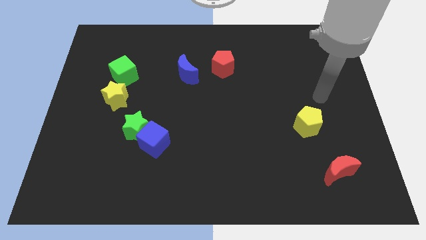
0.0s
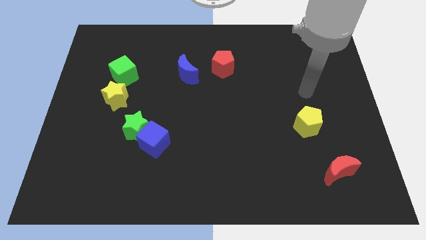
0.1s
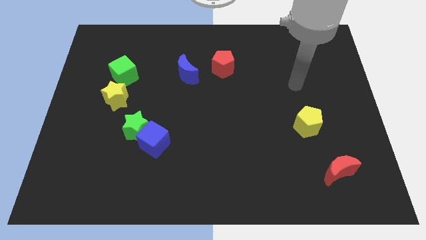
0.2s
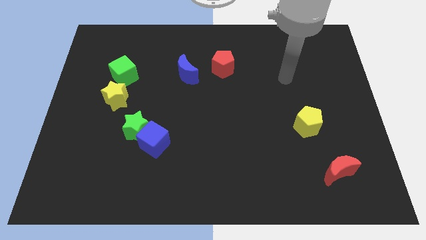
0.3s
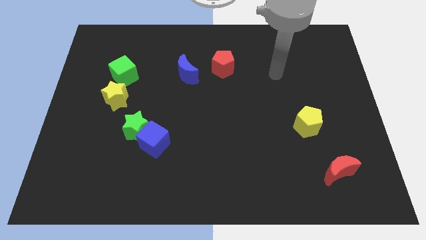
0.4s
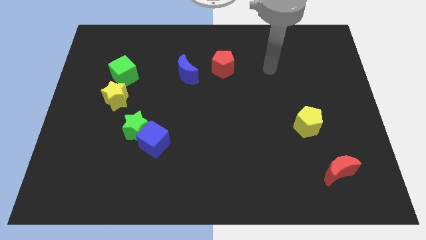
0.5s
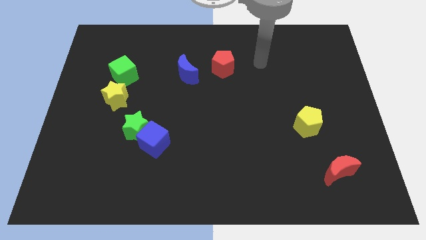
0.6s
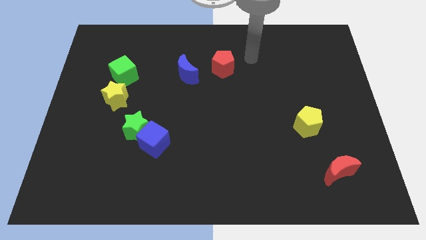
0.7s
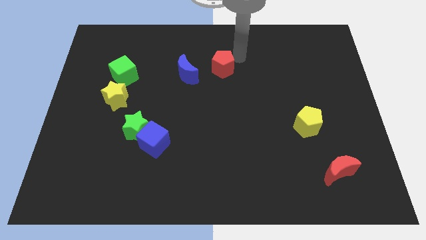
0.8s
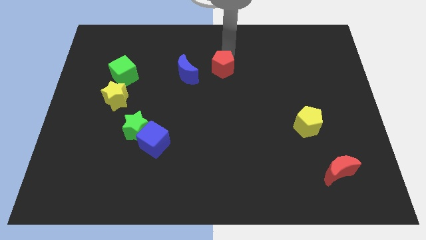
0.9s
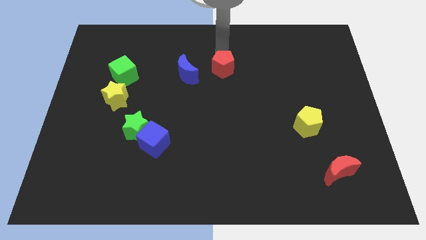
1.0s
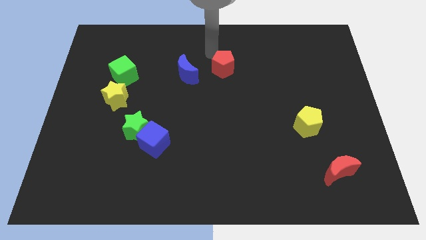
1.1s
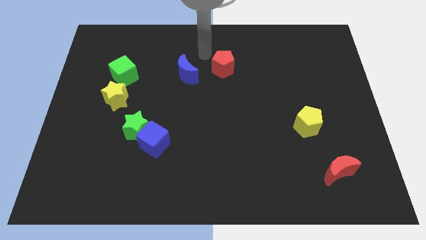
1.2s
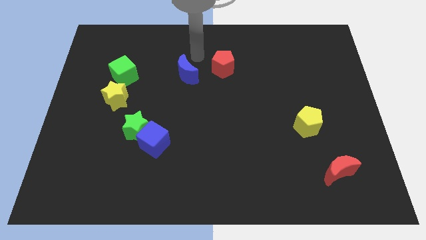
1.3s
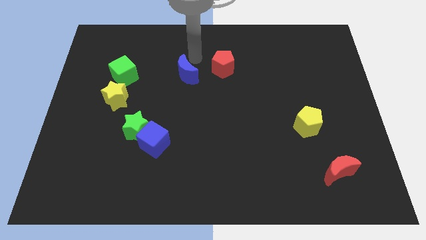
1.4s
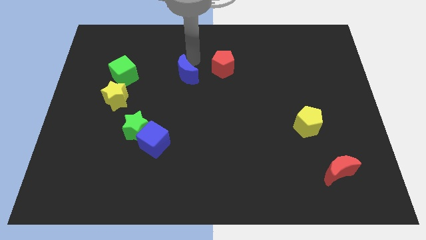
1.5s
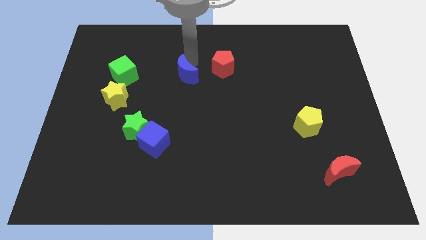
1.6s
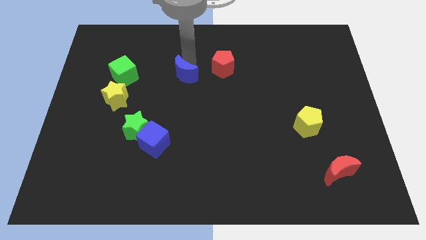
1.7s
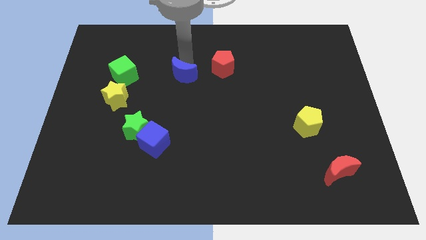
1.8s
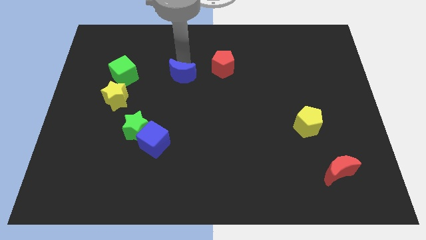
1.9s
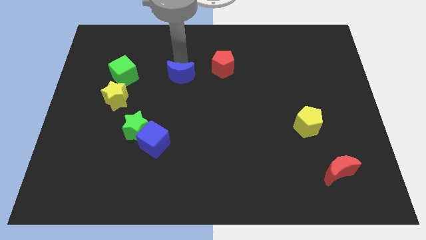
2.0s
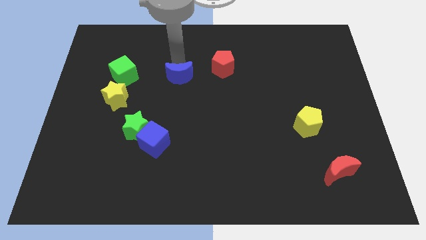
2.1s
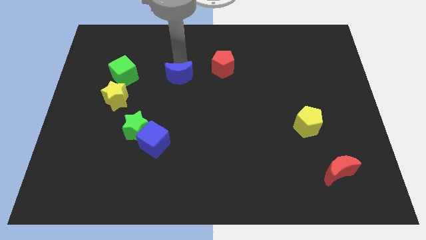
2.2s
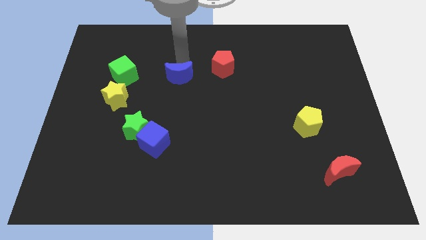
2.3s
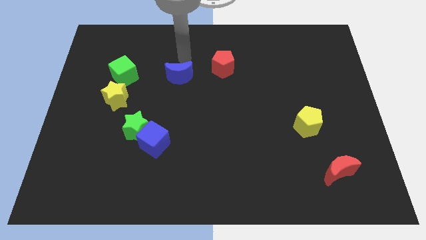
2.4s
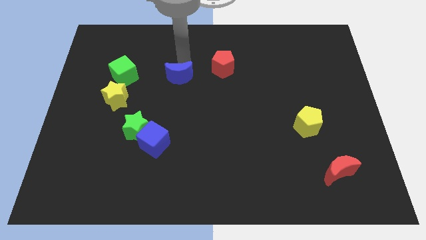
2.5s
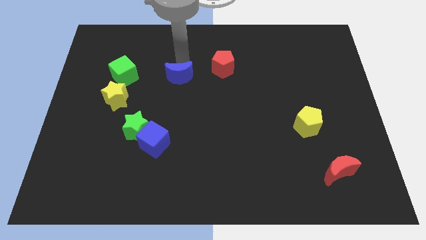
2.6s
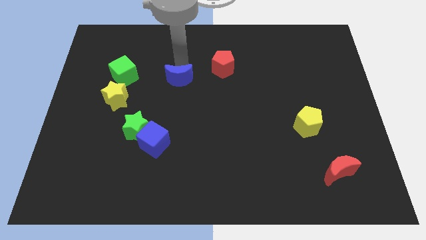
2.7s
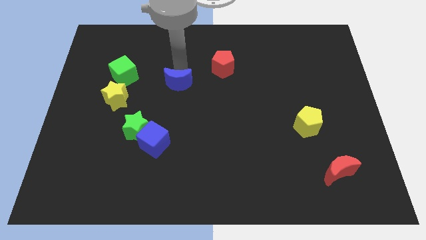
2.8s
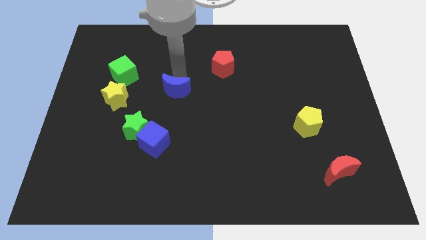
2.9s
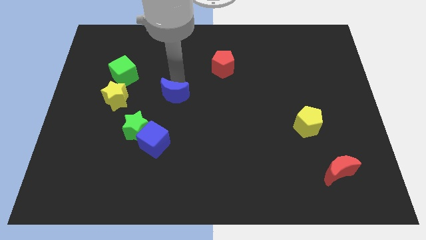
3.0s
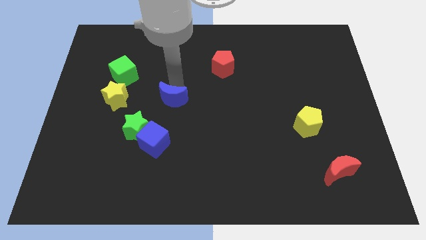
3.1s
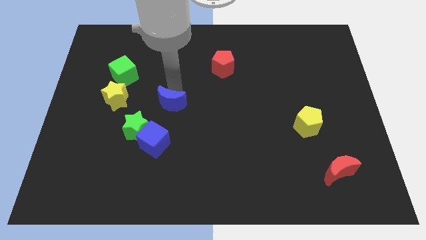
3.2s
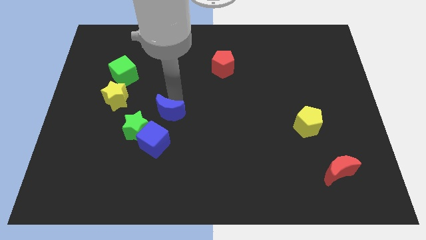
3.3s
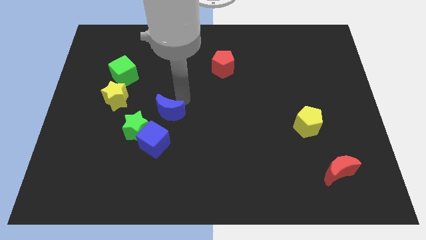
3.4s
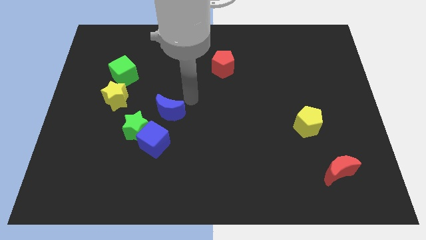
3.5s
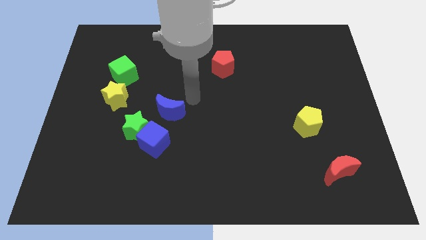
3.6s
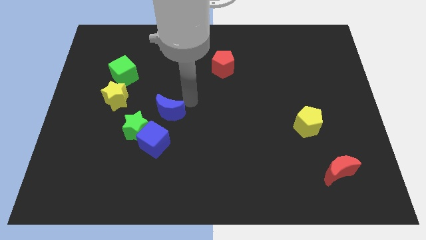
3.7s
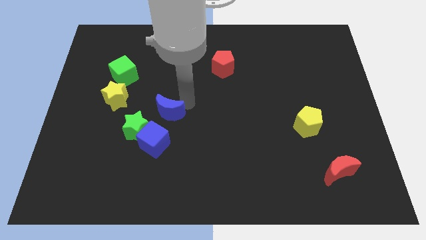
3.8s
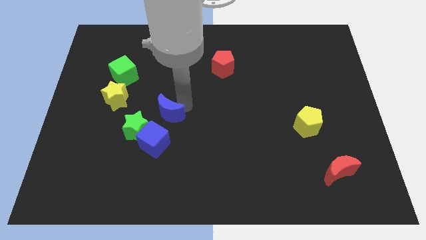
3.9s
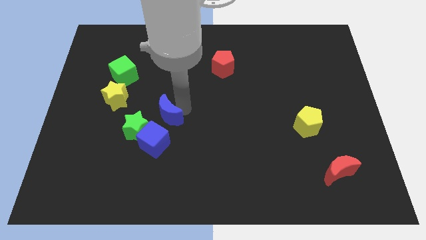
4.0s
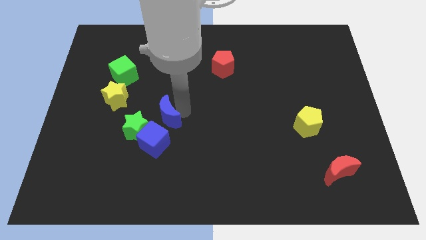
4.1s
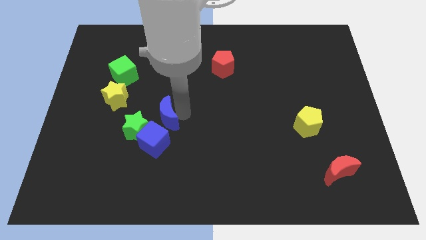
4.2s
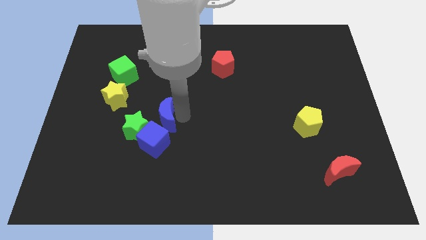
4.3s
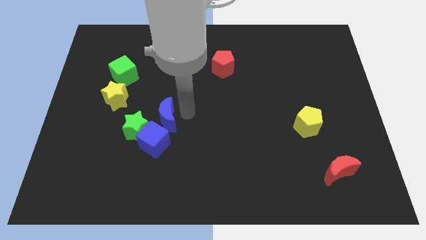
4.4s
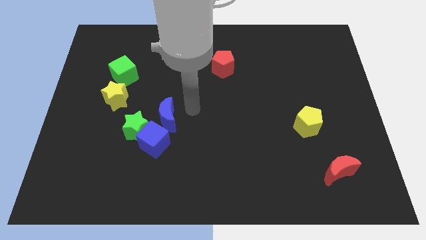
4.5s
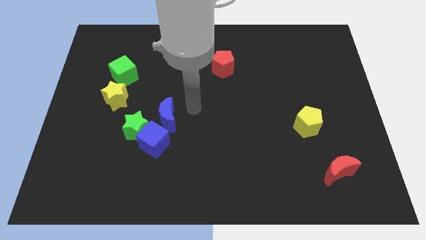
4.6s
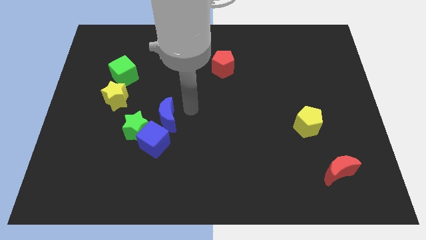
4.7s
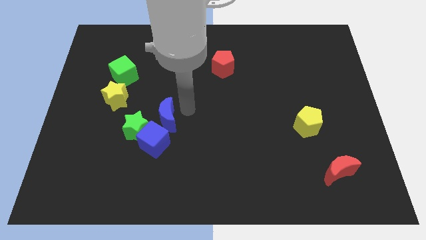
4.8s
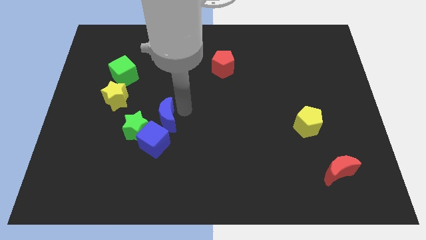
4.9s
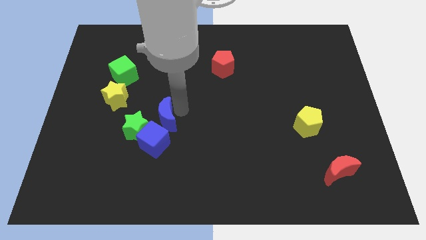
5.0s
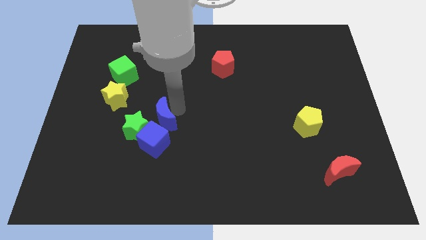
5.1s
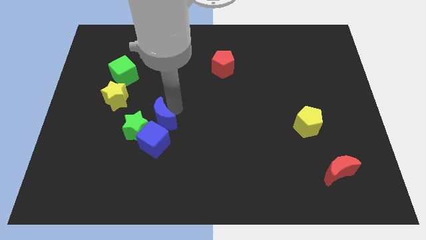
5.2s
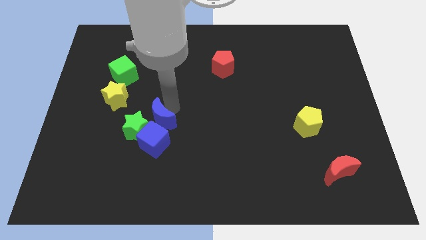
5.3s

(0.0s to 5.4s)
move the blue moon close to the green star

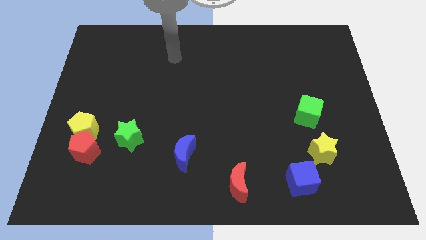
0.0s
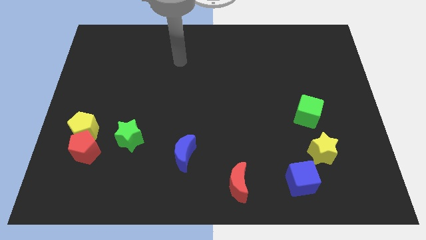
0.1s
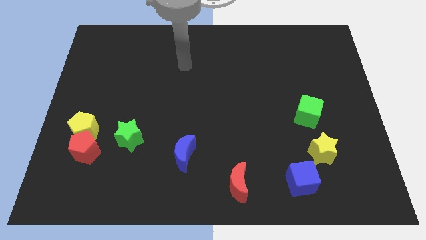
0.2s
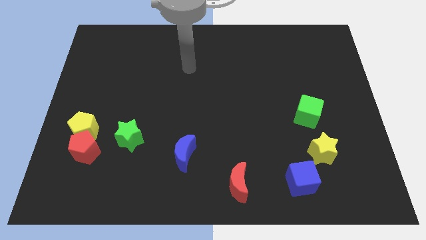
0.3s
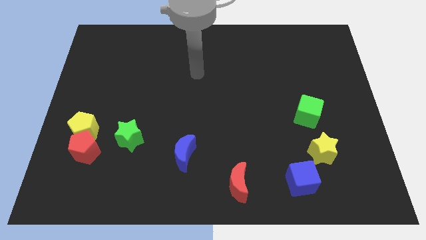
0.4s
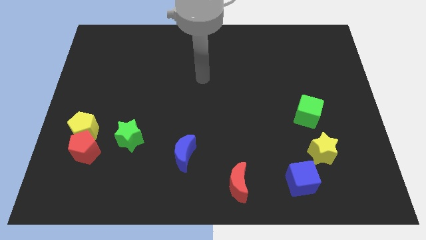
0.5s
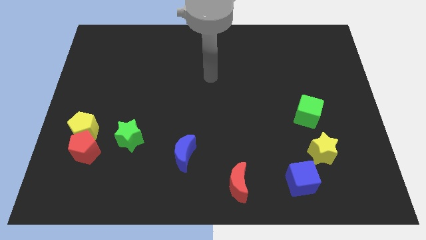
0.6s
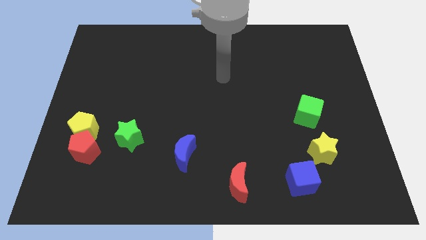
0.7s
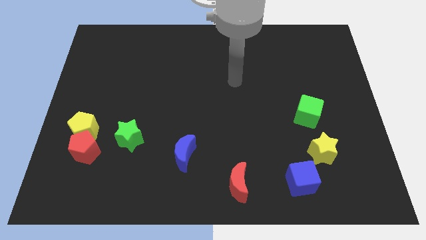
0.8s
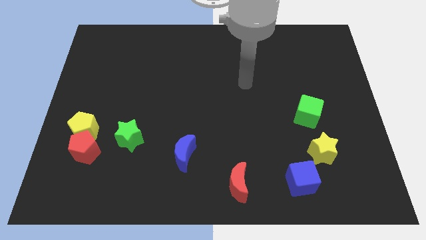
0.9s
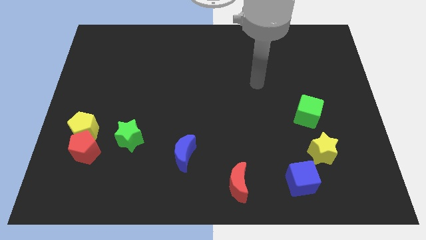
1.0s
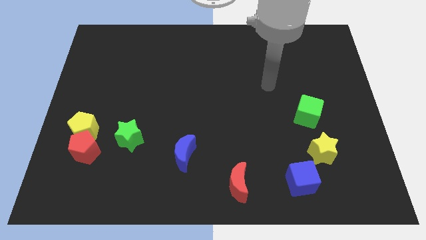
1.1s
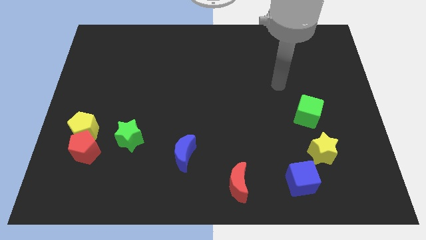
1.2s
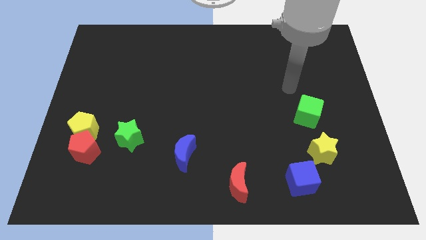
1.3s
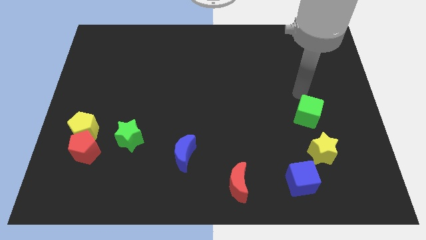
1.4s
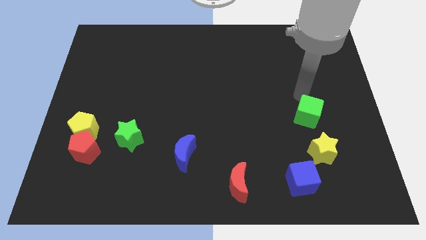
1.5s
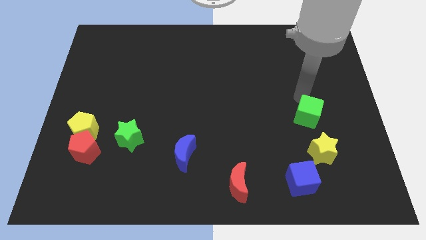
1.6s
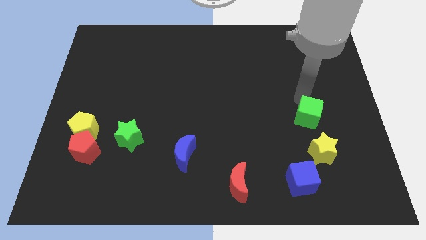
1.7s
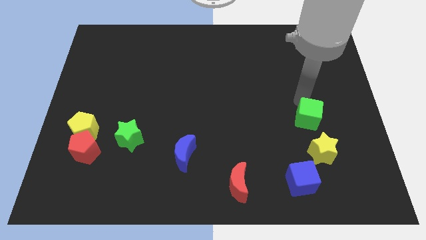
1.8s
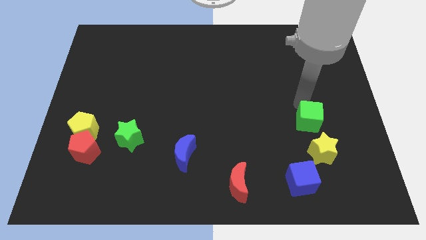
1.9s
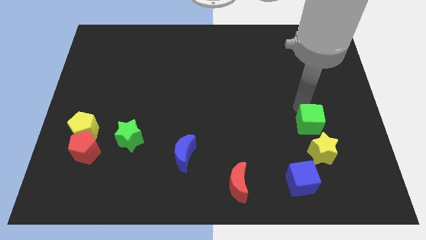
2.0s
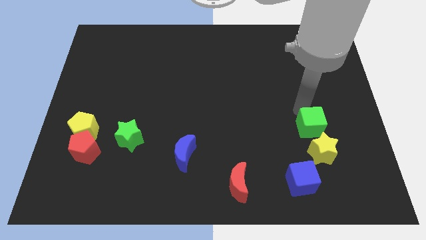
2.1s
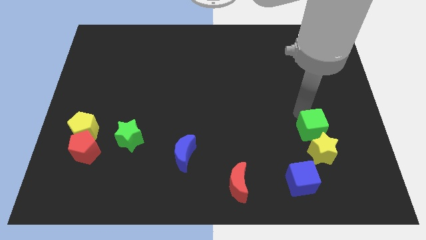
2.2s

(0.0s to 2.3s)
put the green cube towards the yellow star
